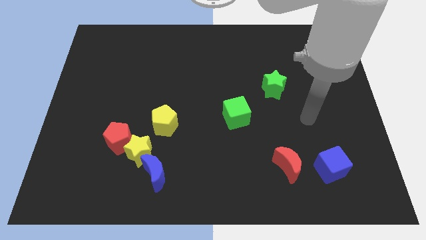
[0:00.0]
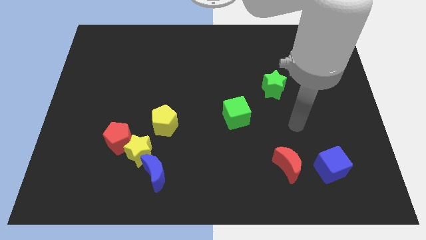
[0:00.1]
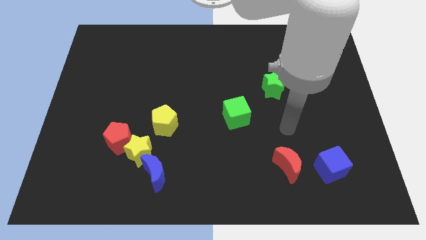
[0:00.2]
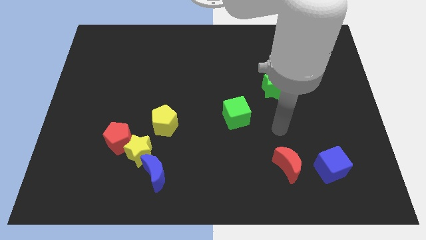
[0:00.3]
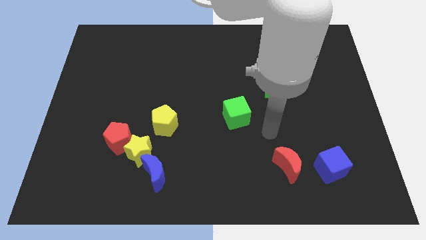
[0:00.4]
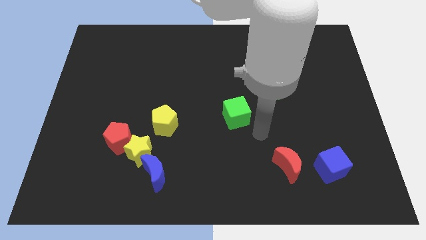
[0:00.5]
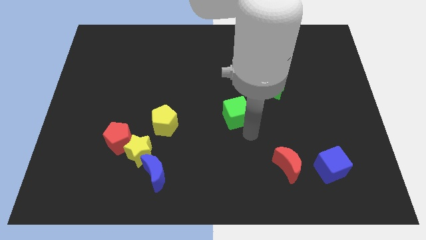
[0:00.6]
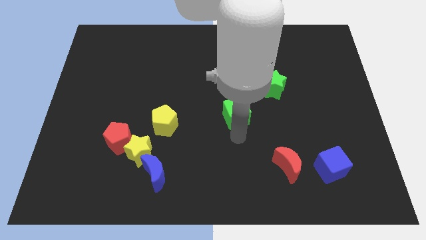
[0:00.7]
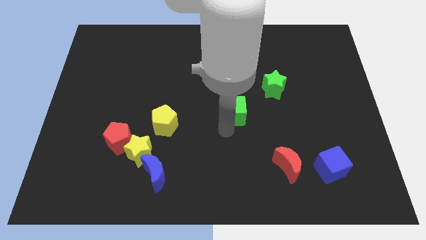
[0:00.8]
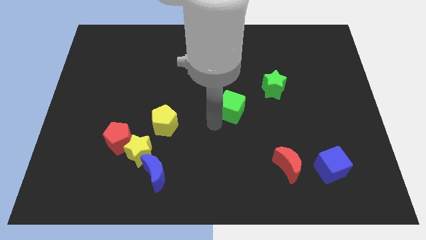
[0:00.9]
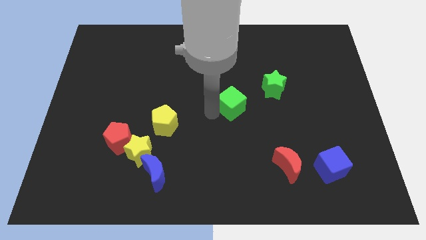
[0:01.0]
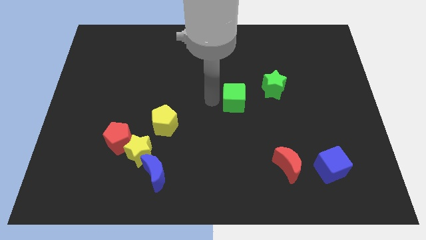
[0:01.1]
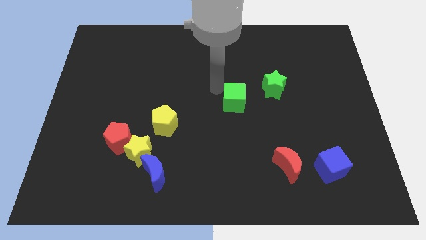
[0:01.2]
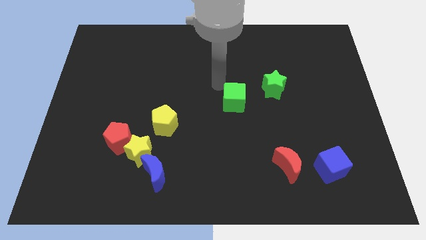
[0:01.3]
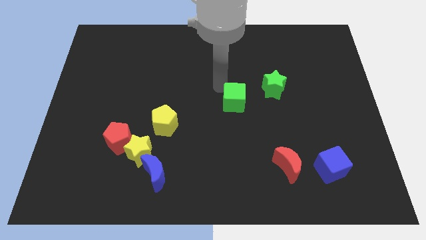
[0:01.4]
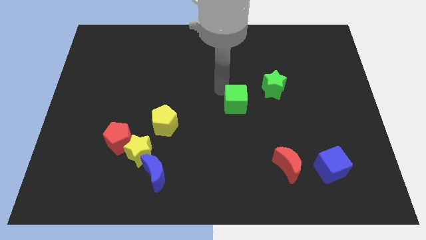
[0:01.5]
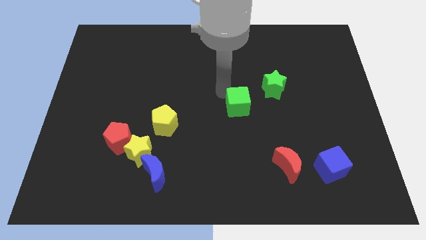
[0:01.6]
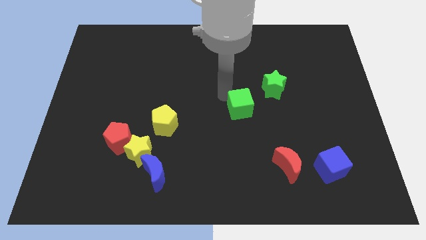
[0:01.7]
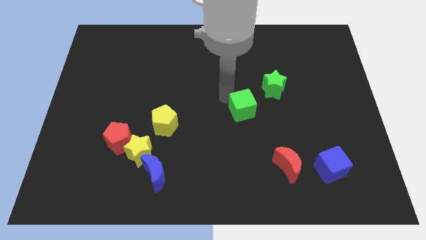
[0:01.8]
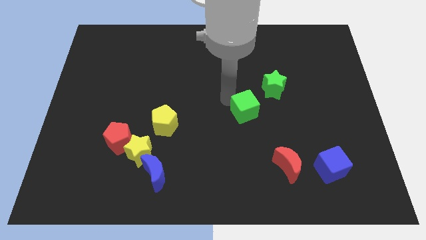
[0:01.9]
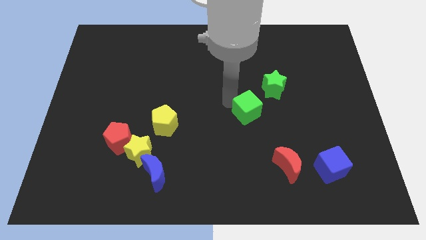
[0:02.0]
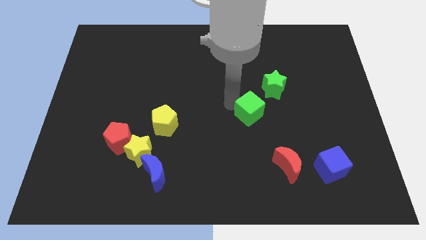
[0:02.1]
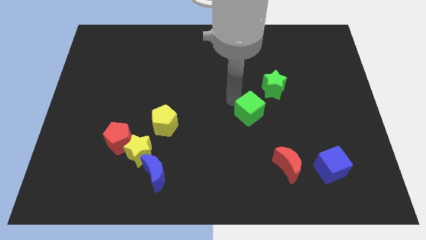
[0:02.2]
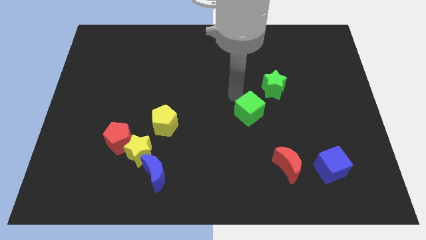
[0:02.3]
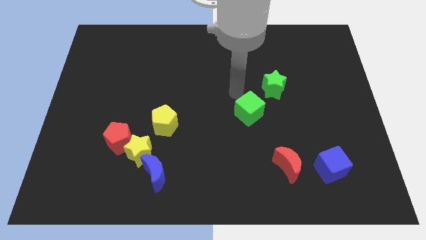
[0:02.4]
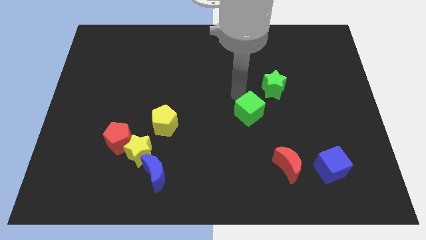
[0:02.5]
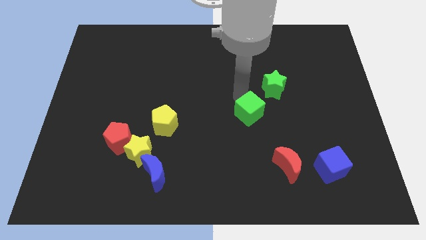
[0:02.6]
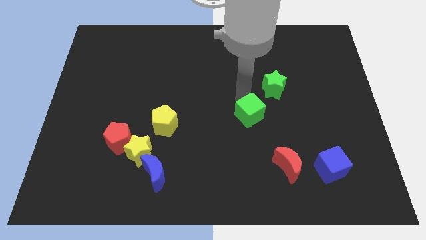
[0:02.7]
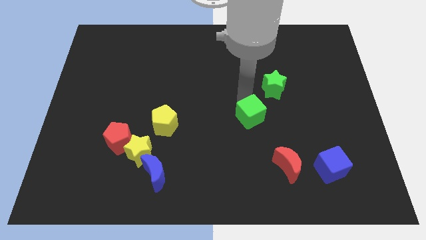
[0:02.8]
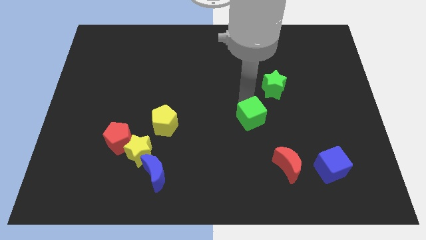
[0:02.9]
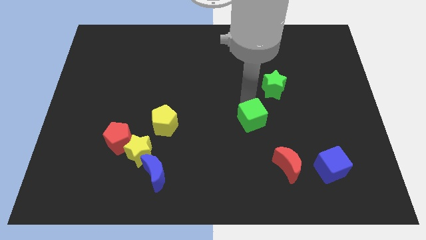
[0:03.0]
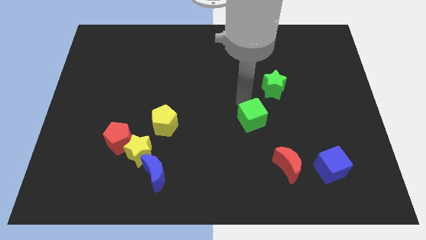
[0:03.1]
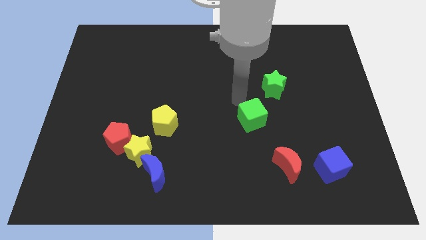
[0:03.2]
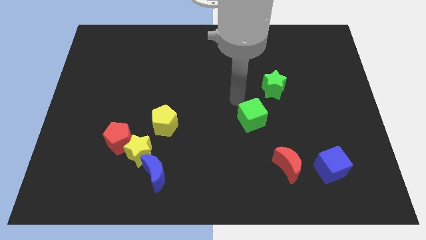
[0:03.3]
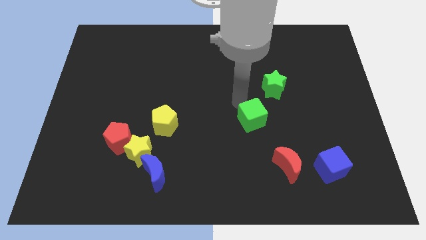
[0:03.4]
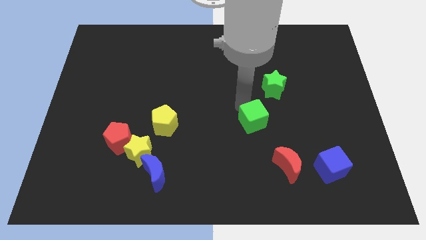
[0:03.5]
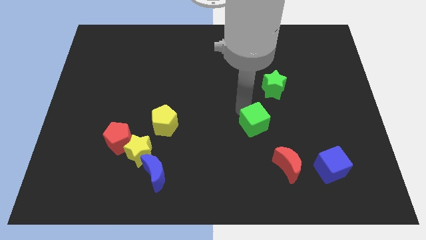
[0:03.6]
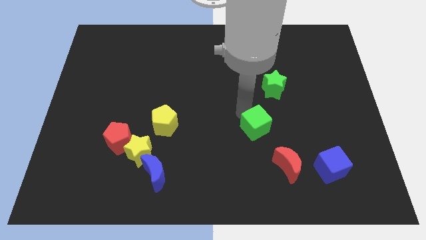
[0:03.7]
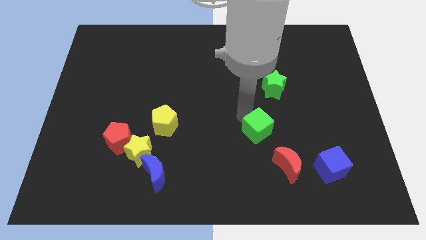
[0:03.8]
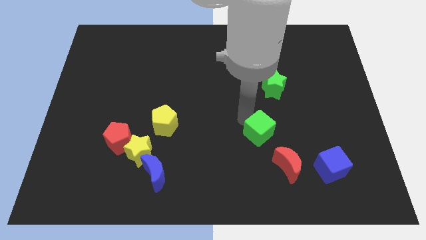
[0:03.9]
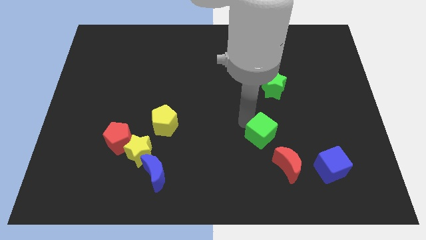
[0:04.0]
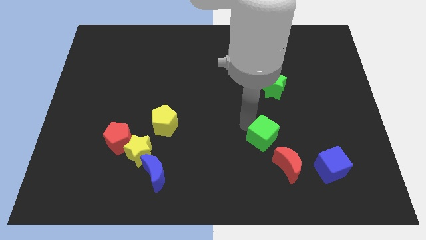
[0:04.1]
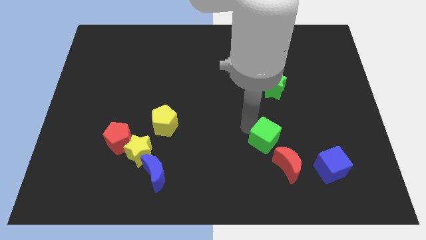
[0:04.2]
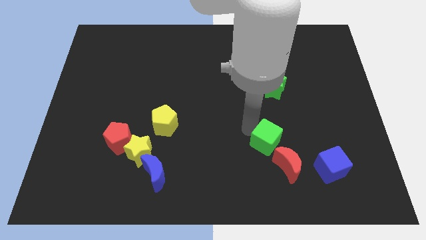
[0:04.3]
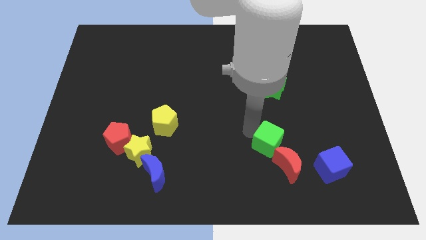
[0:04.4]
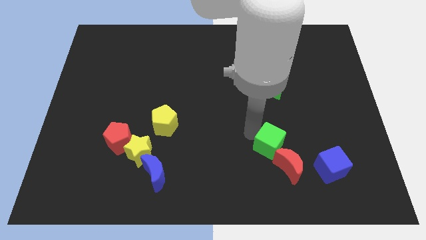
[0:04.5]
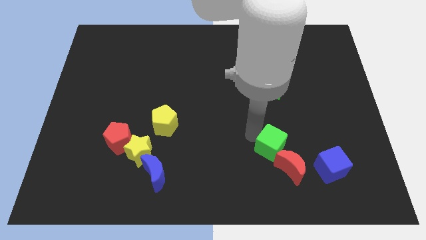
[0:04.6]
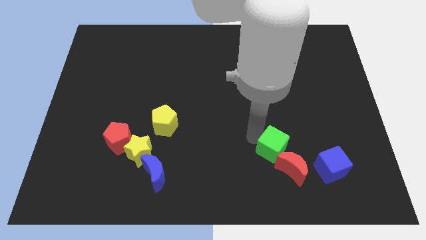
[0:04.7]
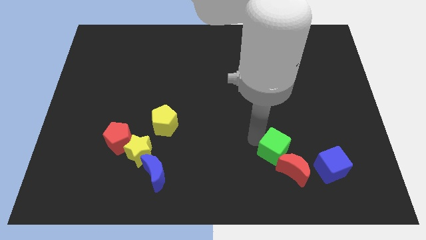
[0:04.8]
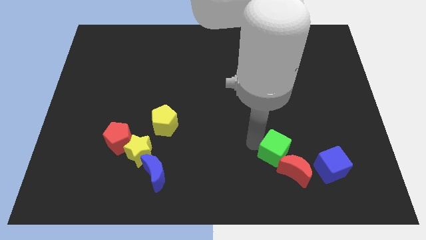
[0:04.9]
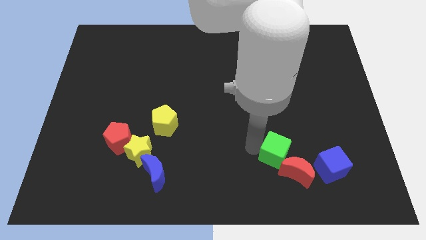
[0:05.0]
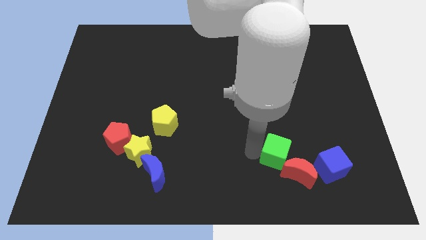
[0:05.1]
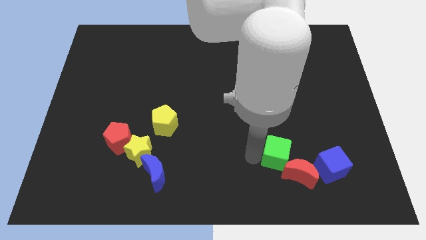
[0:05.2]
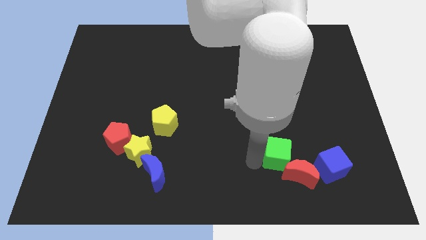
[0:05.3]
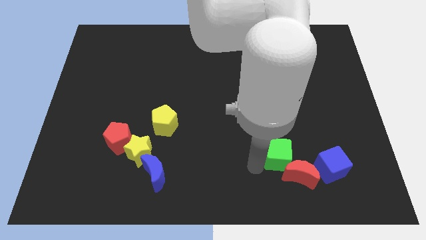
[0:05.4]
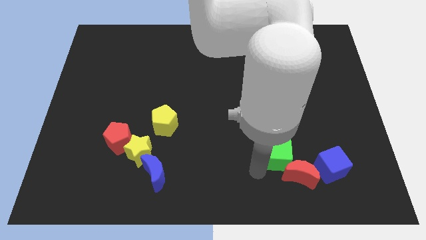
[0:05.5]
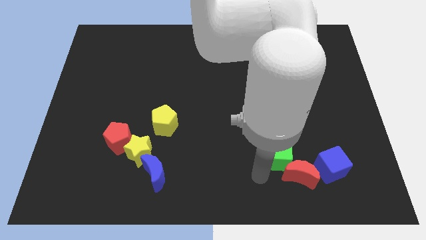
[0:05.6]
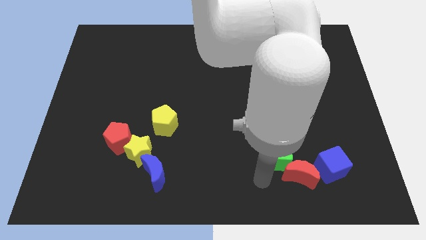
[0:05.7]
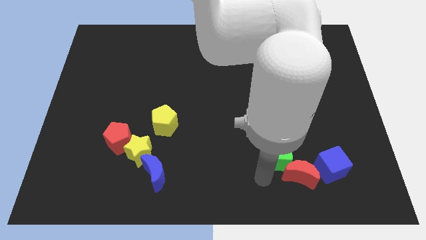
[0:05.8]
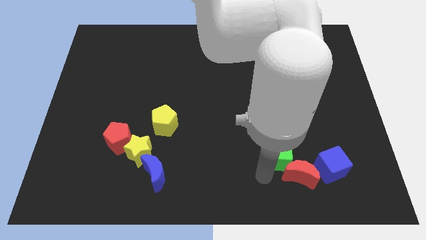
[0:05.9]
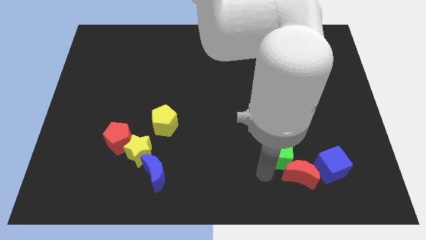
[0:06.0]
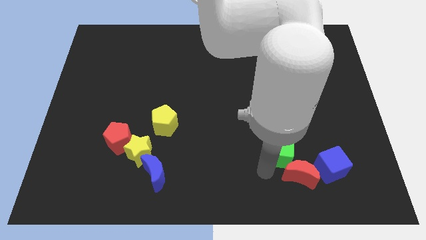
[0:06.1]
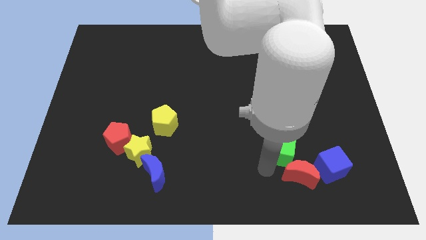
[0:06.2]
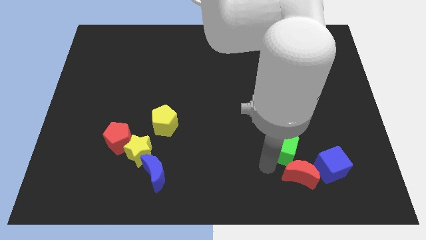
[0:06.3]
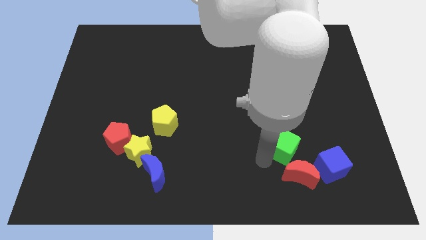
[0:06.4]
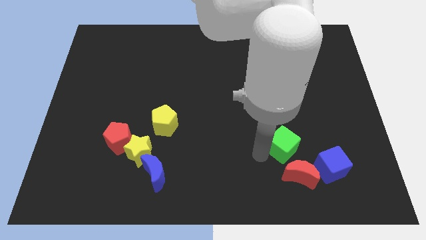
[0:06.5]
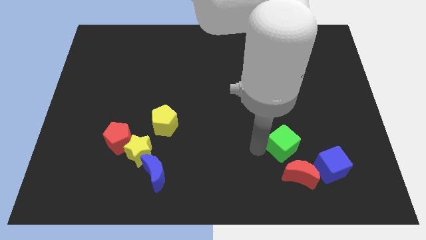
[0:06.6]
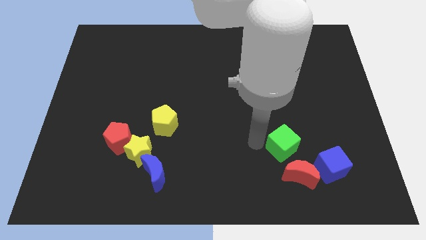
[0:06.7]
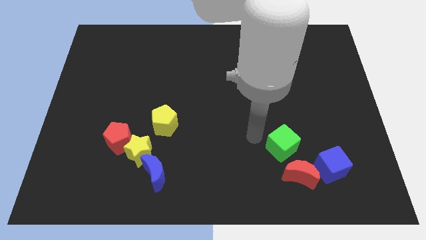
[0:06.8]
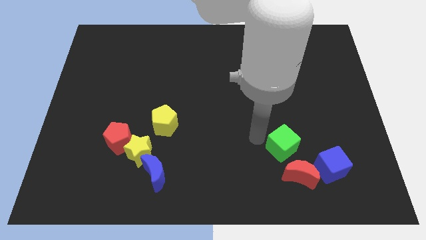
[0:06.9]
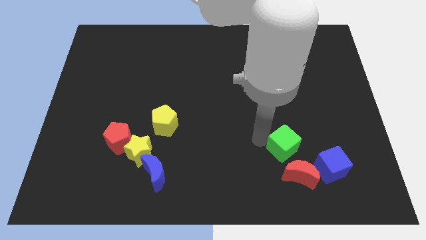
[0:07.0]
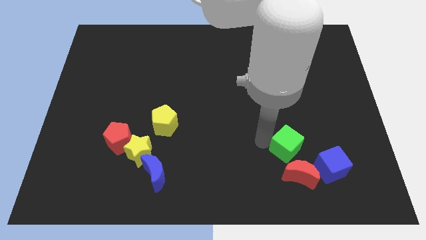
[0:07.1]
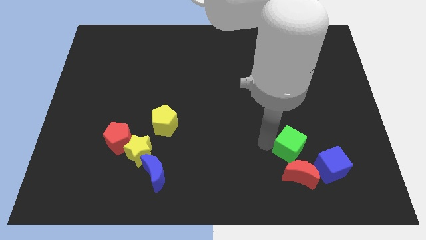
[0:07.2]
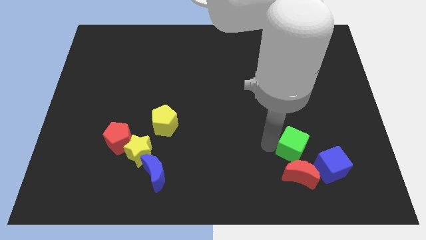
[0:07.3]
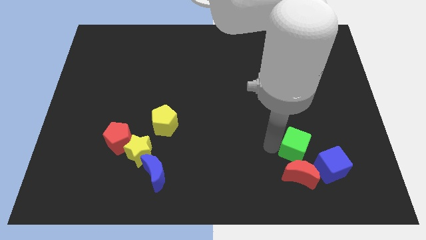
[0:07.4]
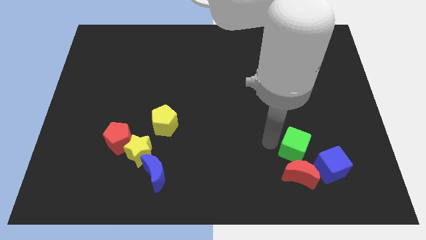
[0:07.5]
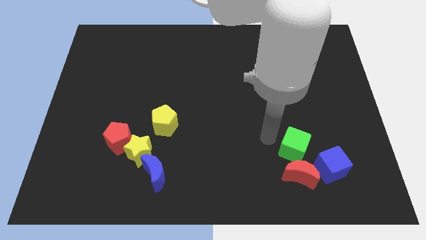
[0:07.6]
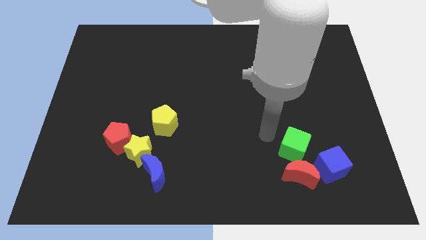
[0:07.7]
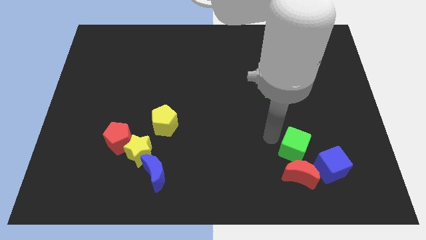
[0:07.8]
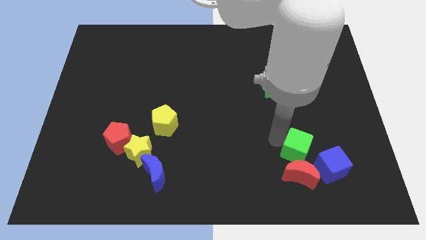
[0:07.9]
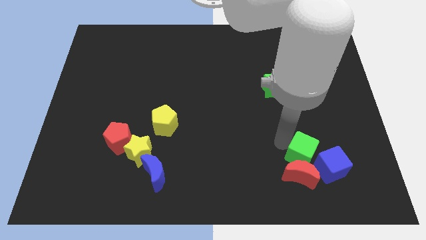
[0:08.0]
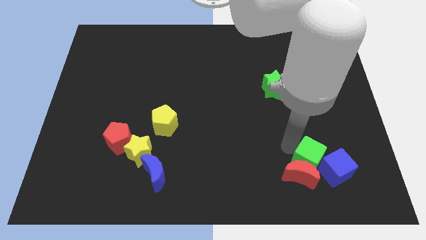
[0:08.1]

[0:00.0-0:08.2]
move the green cube towards the blue cube
